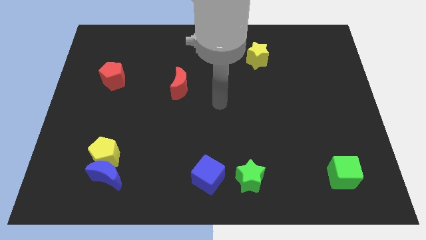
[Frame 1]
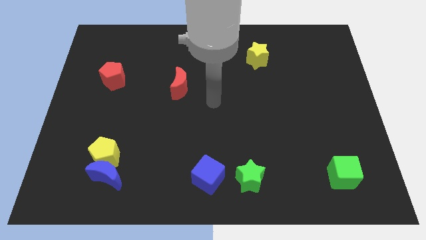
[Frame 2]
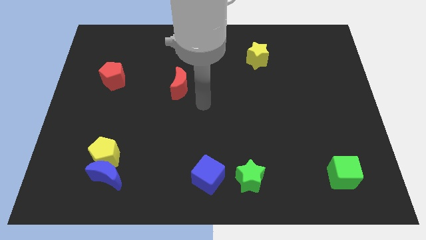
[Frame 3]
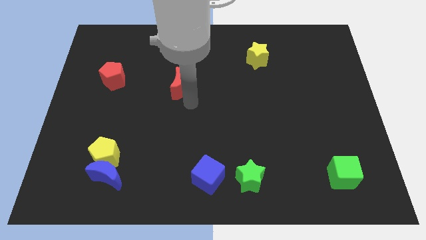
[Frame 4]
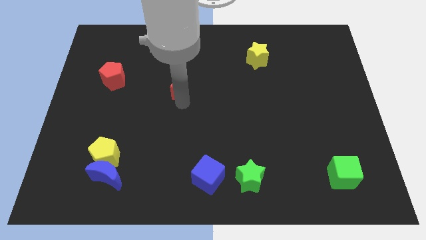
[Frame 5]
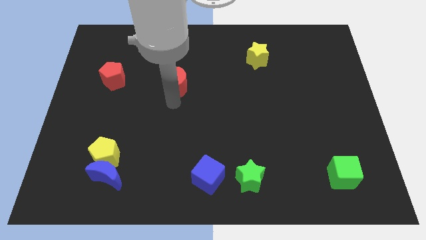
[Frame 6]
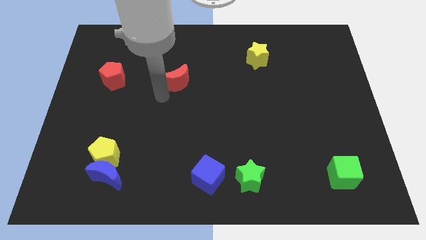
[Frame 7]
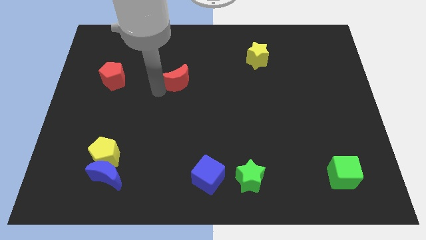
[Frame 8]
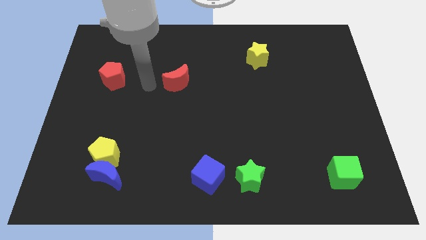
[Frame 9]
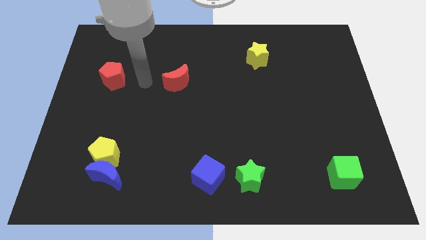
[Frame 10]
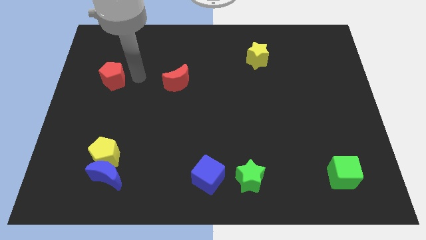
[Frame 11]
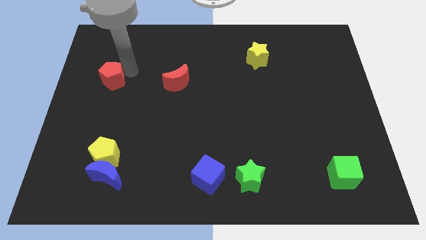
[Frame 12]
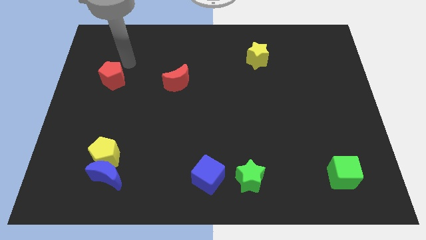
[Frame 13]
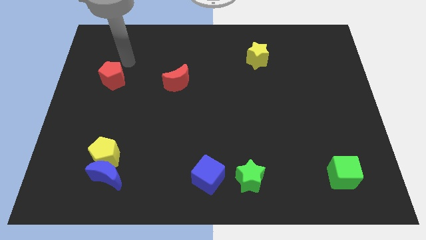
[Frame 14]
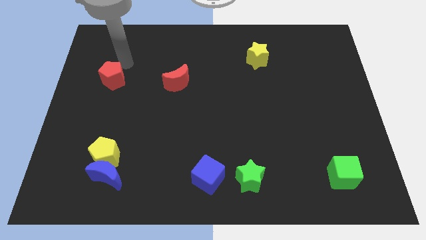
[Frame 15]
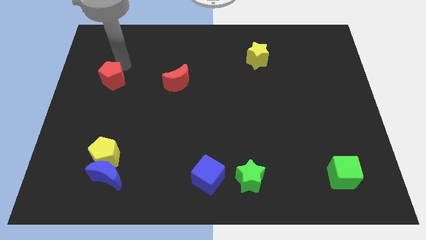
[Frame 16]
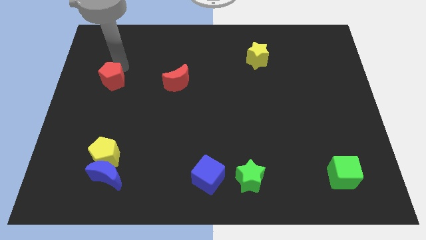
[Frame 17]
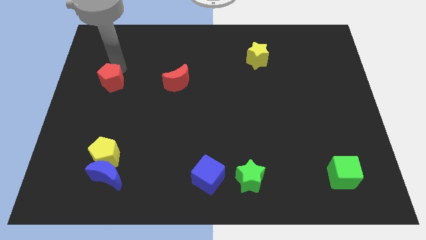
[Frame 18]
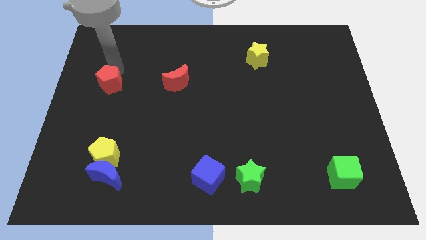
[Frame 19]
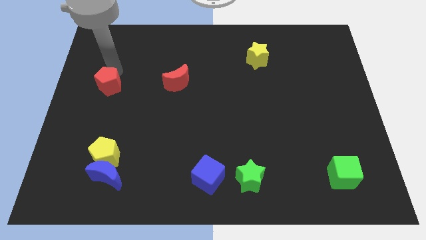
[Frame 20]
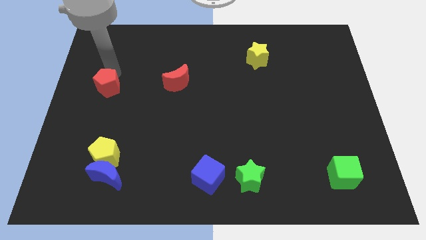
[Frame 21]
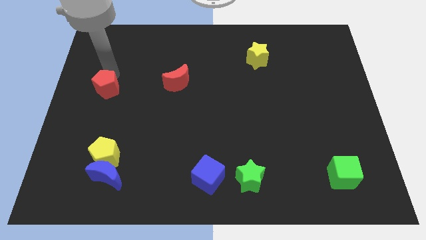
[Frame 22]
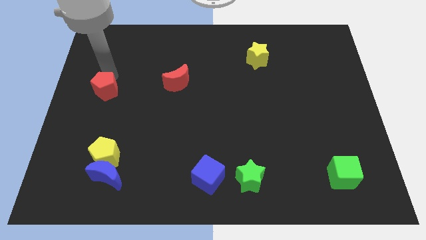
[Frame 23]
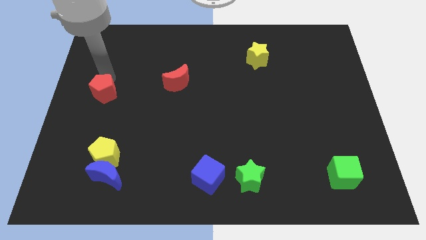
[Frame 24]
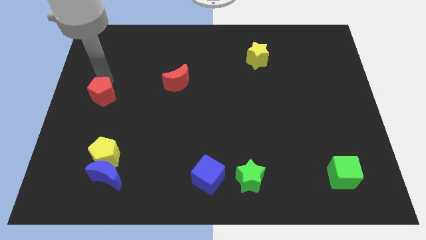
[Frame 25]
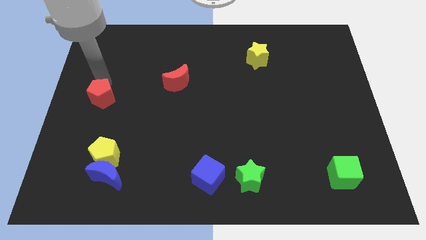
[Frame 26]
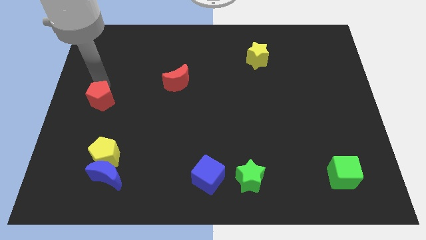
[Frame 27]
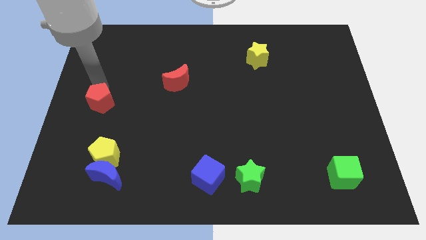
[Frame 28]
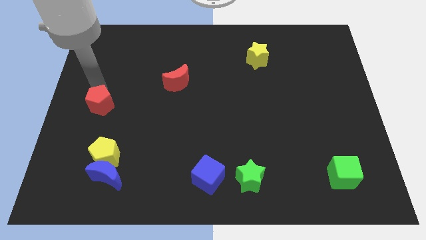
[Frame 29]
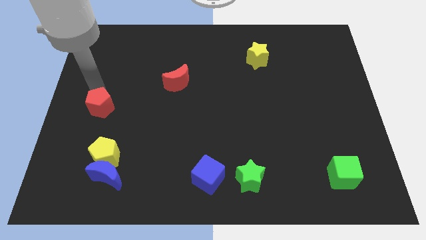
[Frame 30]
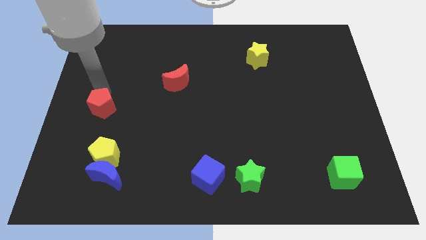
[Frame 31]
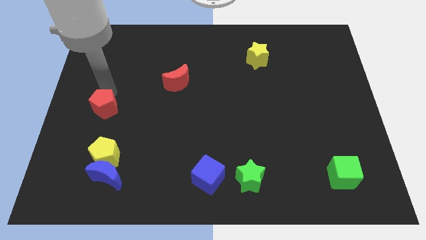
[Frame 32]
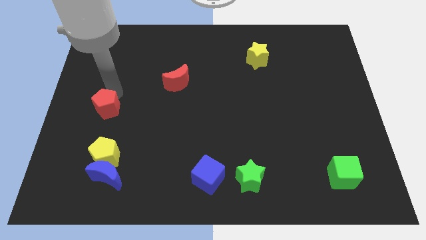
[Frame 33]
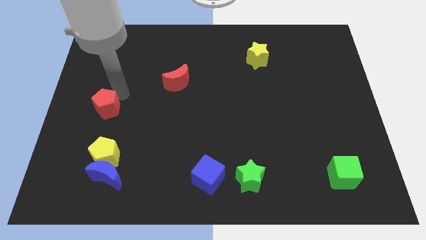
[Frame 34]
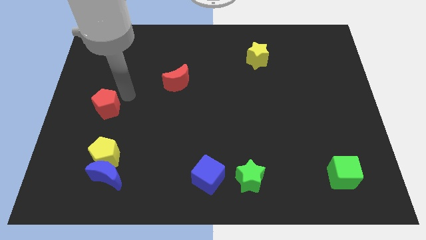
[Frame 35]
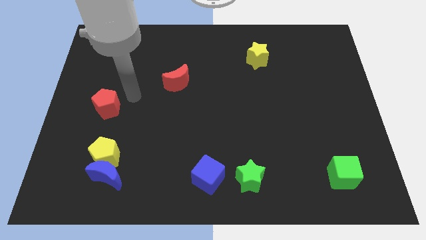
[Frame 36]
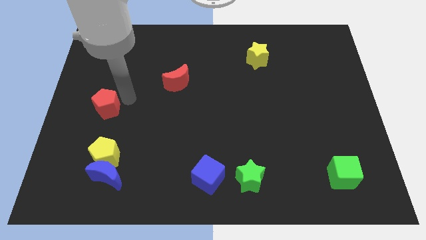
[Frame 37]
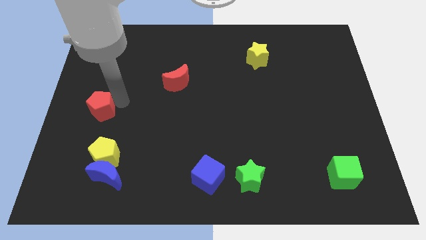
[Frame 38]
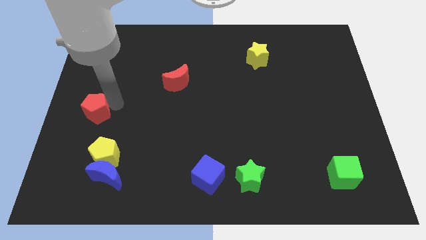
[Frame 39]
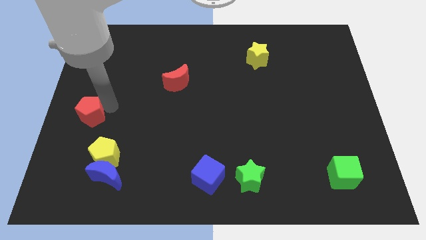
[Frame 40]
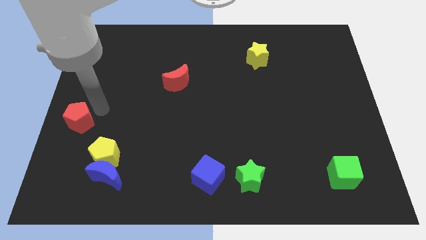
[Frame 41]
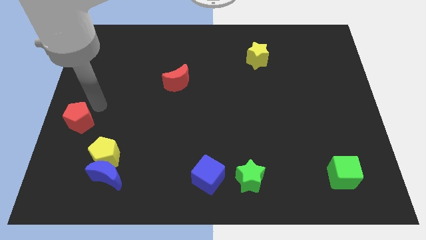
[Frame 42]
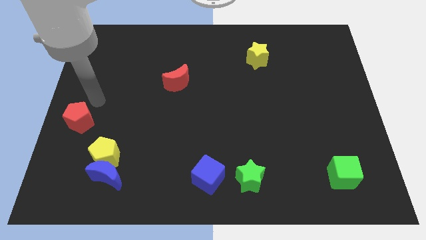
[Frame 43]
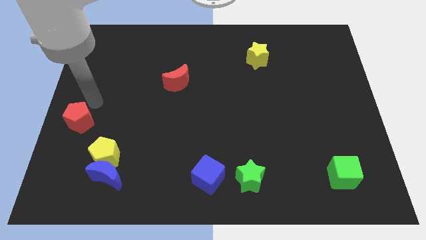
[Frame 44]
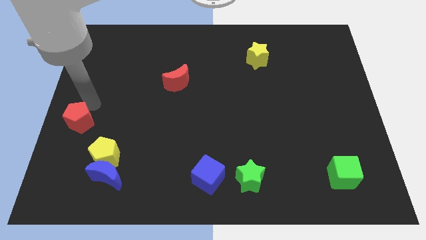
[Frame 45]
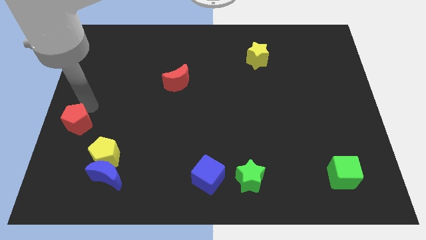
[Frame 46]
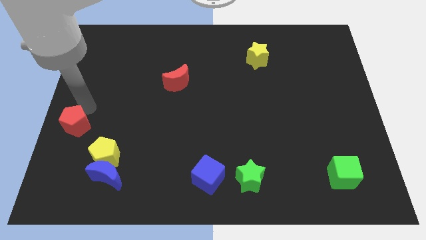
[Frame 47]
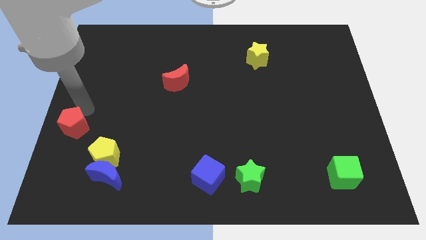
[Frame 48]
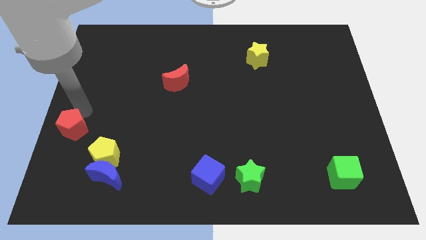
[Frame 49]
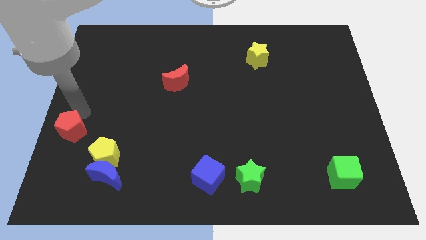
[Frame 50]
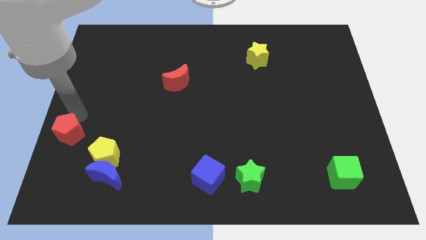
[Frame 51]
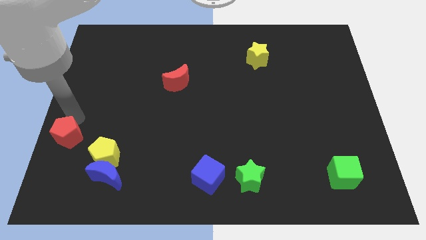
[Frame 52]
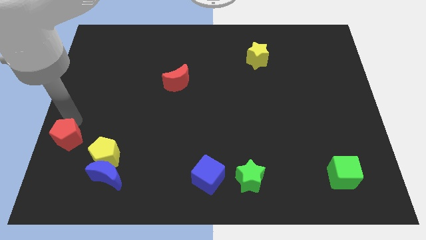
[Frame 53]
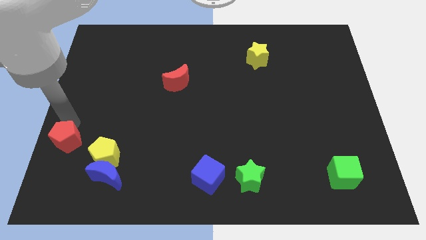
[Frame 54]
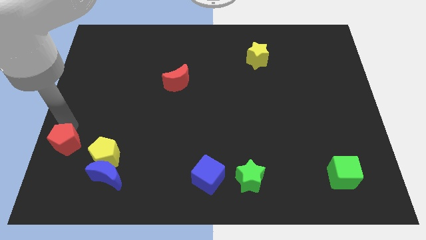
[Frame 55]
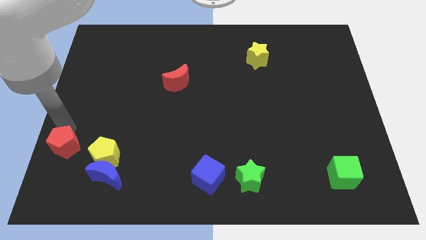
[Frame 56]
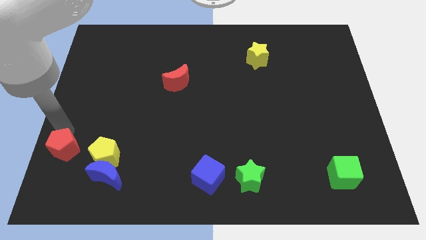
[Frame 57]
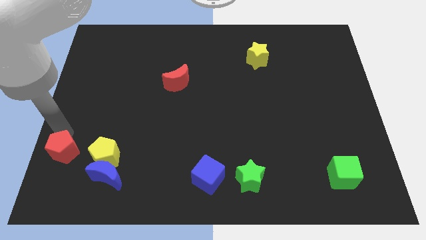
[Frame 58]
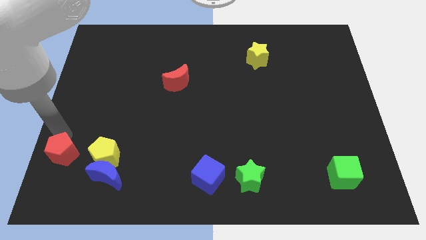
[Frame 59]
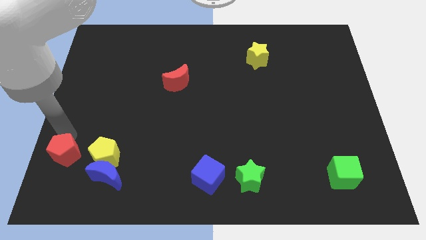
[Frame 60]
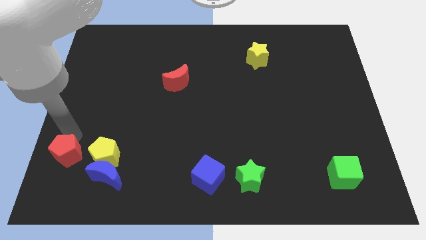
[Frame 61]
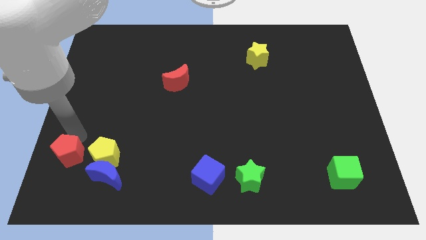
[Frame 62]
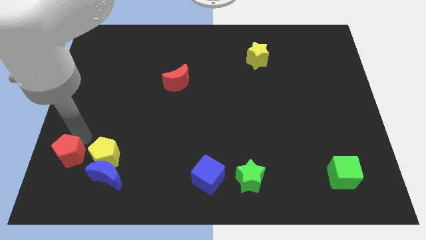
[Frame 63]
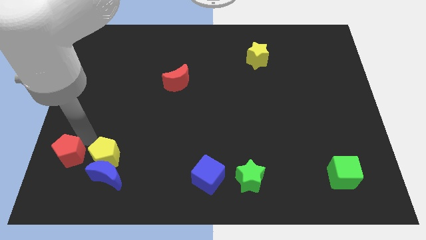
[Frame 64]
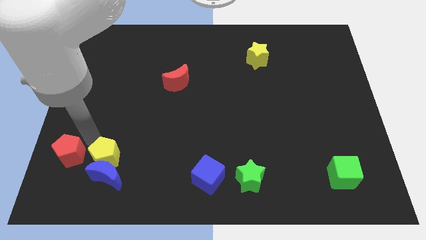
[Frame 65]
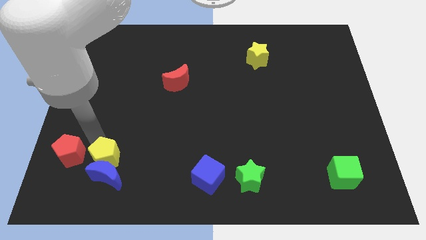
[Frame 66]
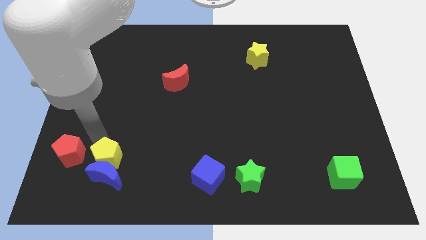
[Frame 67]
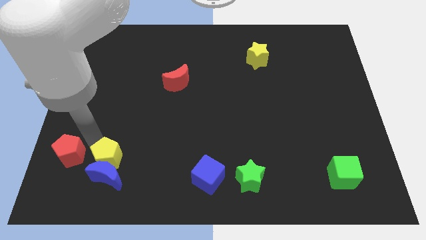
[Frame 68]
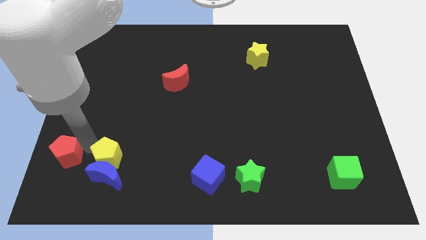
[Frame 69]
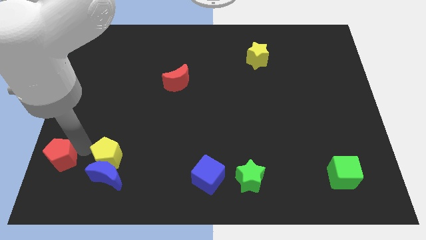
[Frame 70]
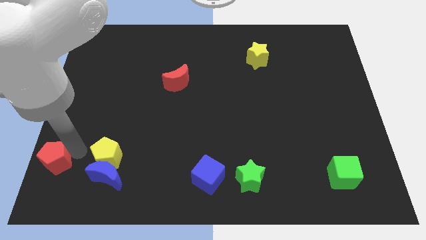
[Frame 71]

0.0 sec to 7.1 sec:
push the red pentagon to the bottom left

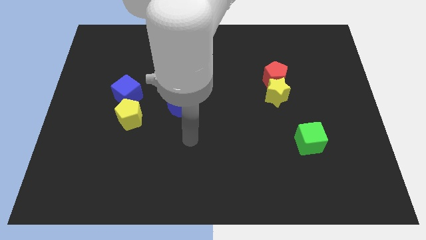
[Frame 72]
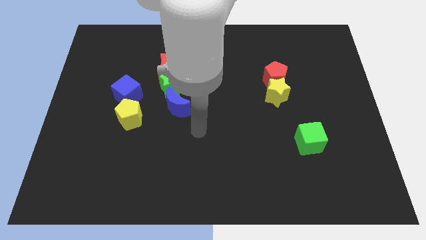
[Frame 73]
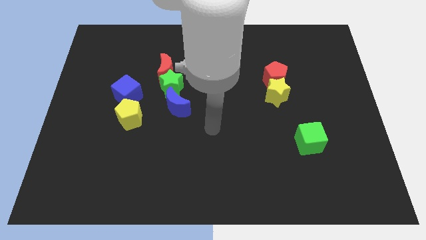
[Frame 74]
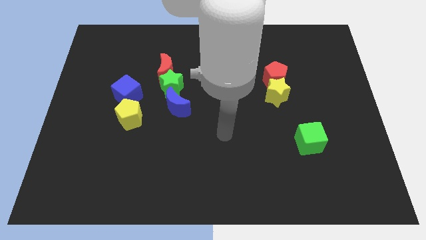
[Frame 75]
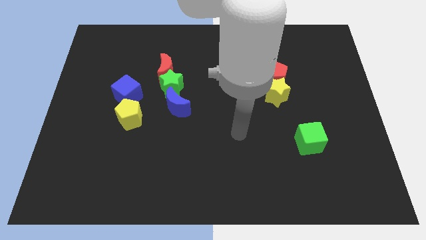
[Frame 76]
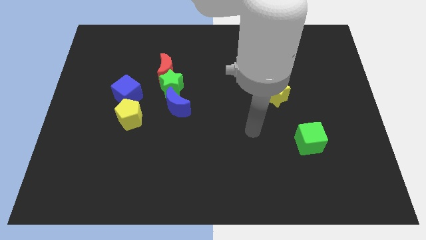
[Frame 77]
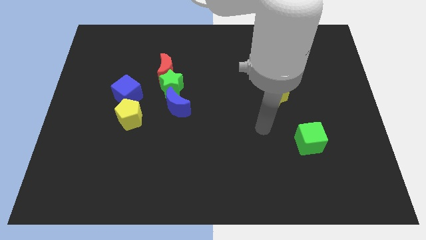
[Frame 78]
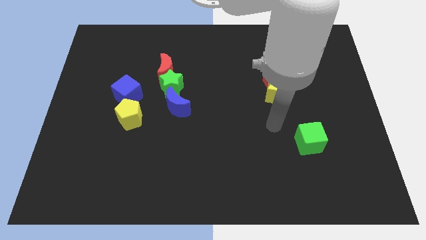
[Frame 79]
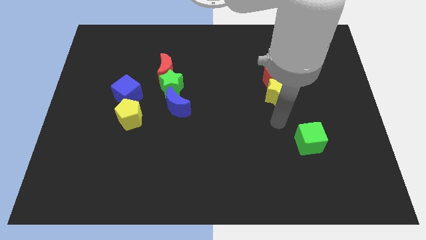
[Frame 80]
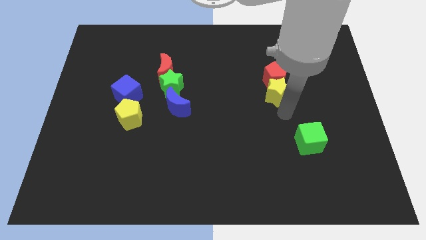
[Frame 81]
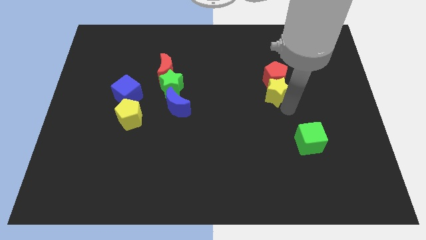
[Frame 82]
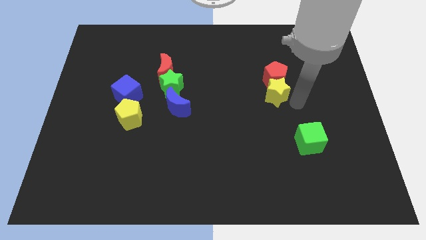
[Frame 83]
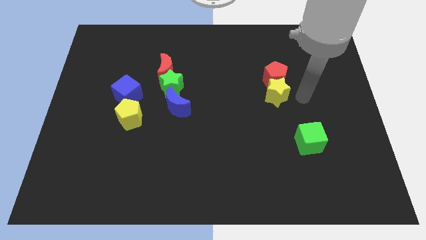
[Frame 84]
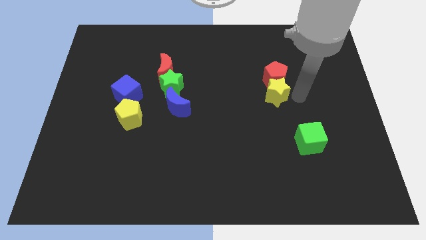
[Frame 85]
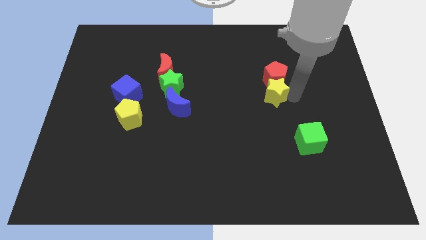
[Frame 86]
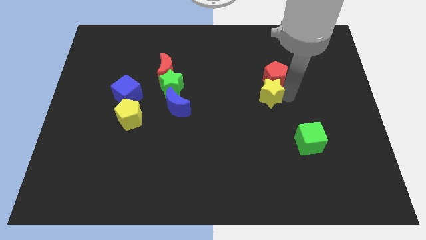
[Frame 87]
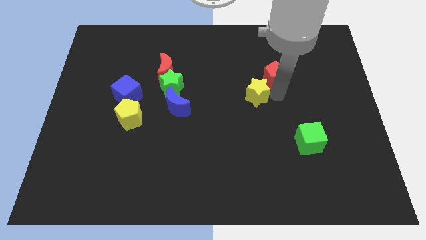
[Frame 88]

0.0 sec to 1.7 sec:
push the yellow star to the center
